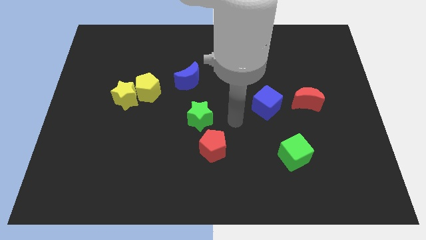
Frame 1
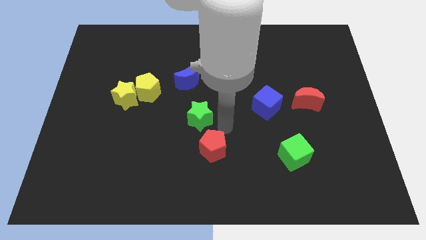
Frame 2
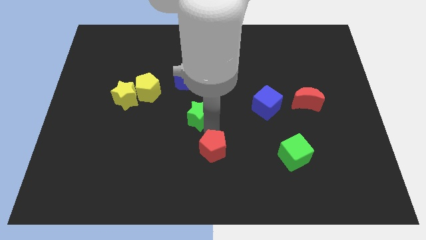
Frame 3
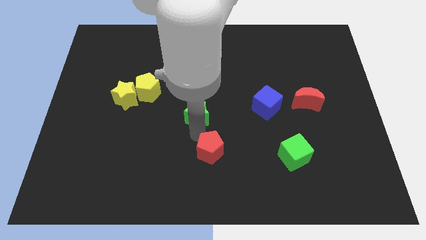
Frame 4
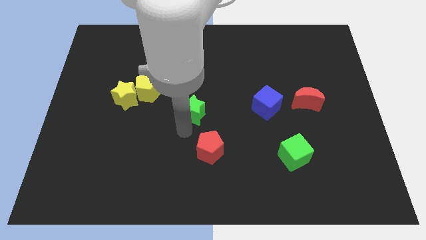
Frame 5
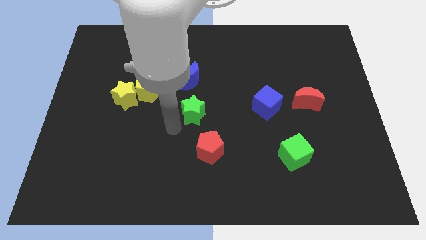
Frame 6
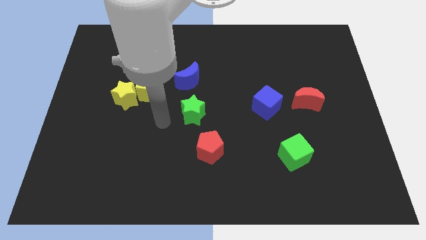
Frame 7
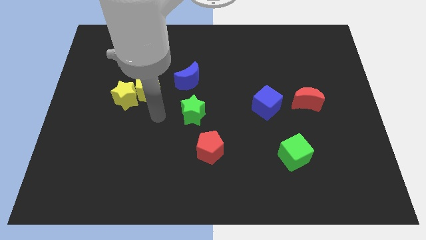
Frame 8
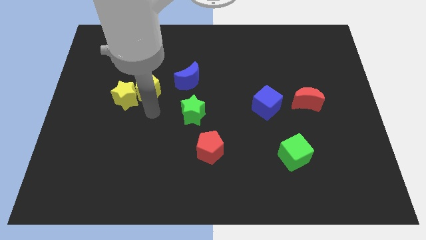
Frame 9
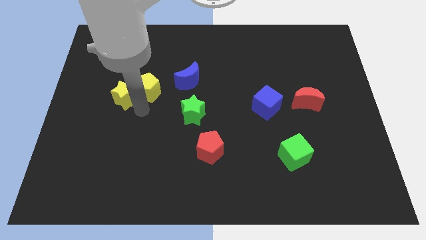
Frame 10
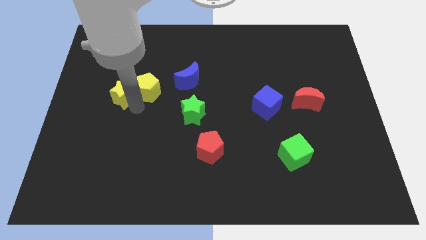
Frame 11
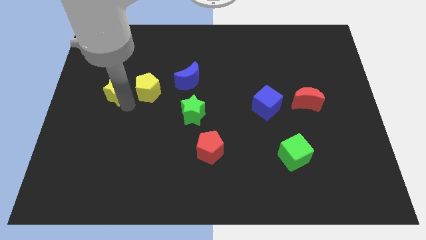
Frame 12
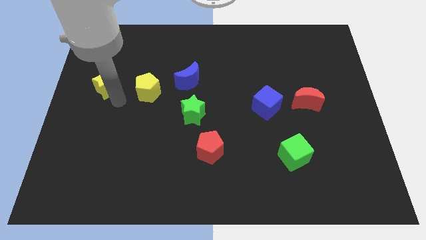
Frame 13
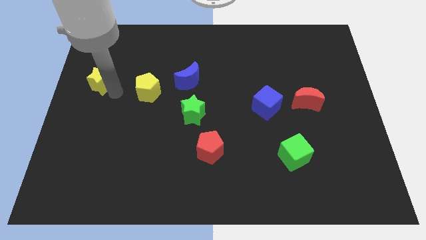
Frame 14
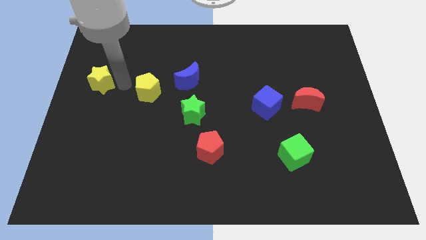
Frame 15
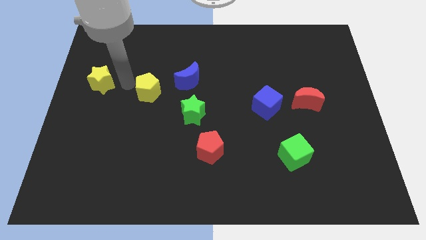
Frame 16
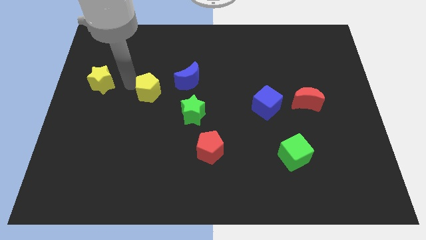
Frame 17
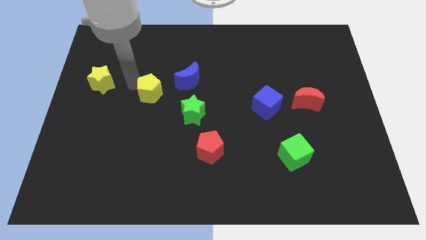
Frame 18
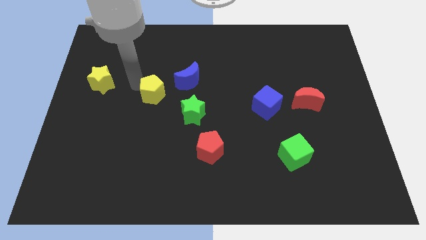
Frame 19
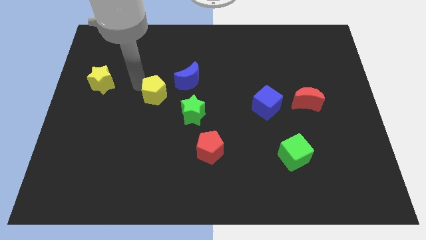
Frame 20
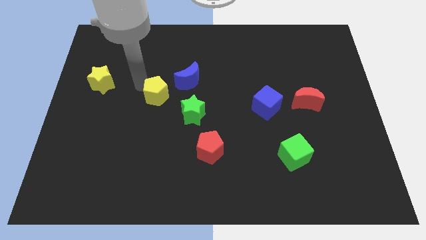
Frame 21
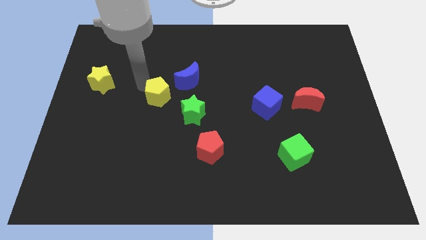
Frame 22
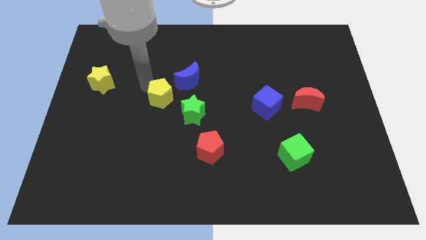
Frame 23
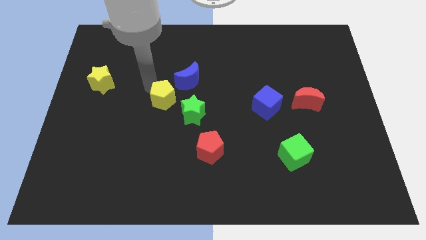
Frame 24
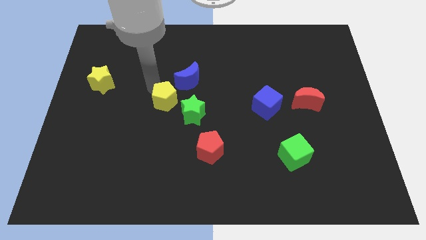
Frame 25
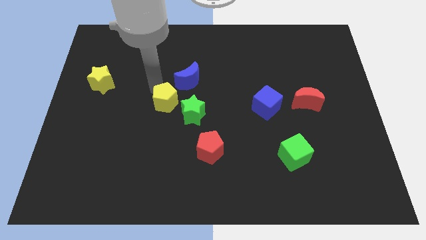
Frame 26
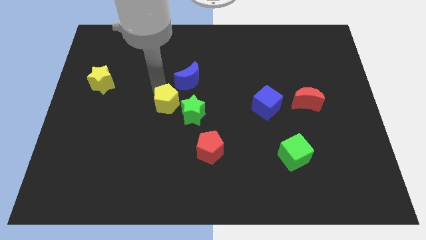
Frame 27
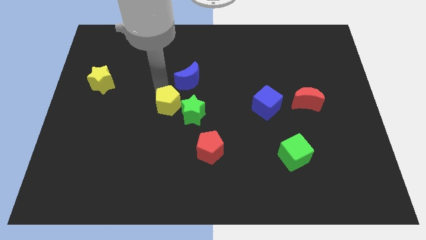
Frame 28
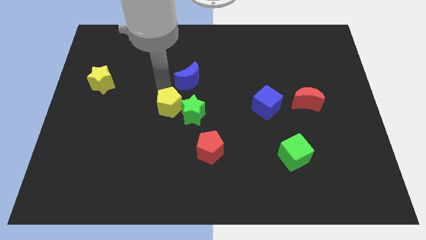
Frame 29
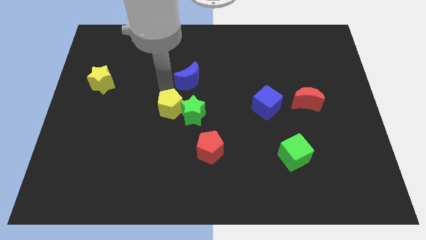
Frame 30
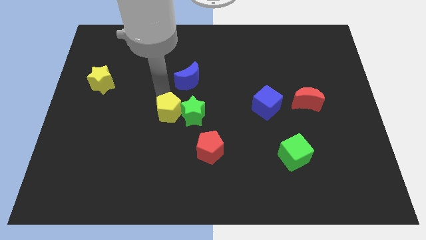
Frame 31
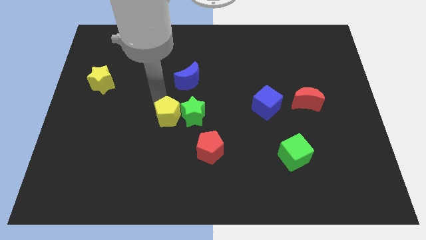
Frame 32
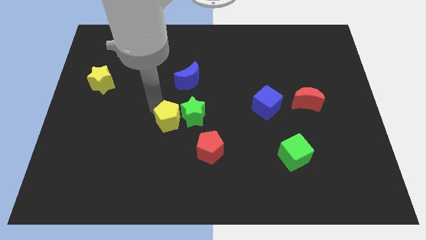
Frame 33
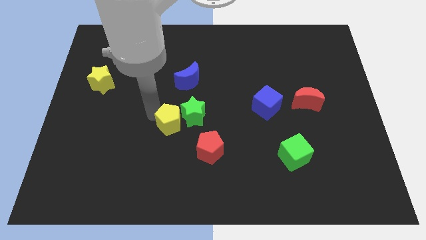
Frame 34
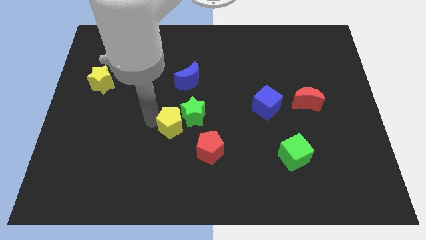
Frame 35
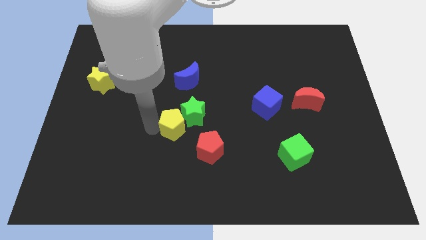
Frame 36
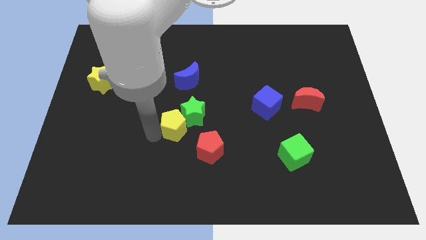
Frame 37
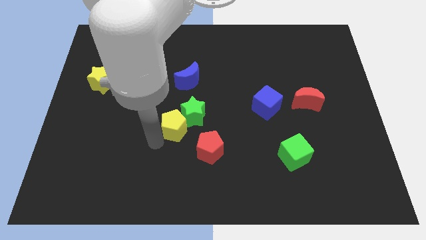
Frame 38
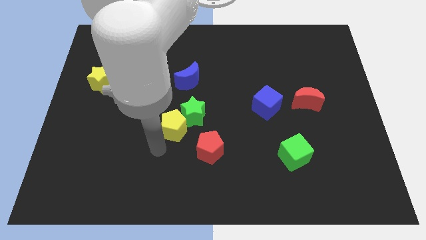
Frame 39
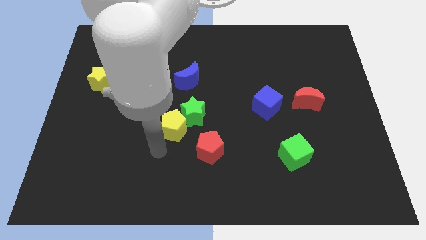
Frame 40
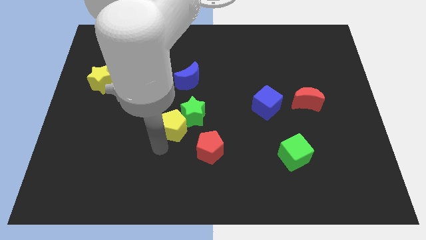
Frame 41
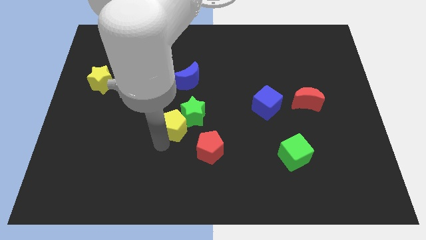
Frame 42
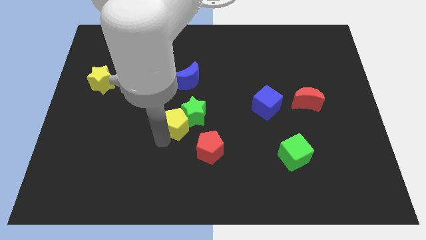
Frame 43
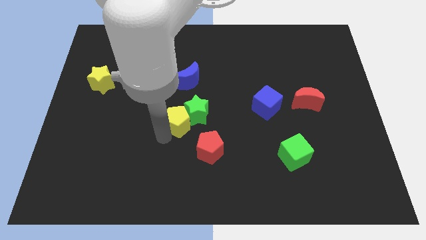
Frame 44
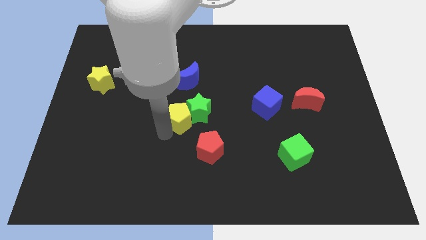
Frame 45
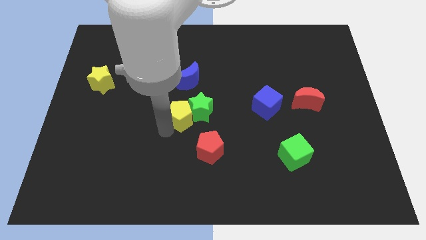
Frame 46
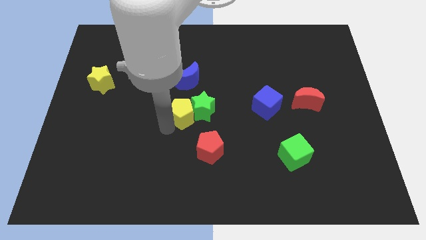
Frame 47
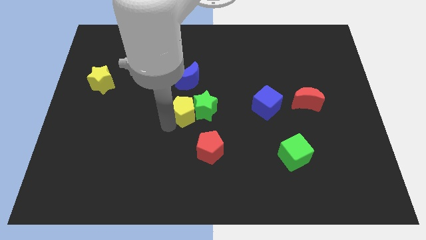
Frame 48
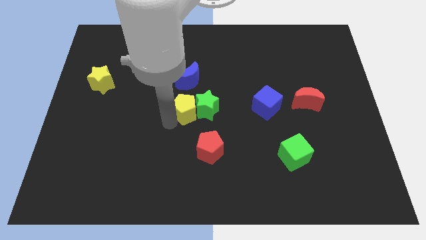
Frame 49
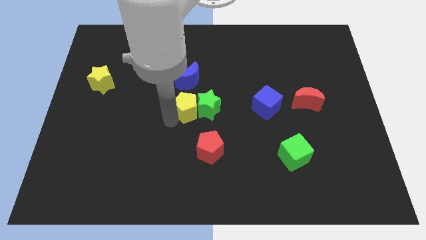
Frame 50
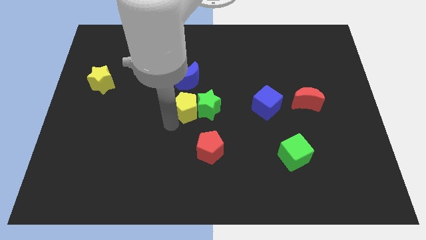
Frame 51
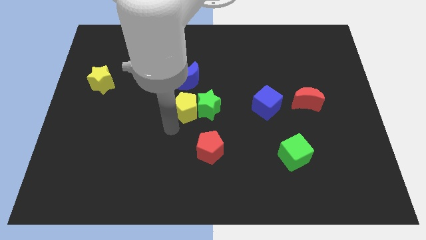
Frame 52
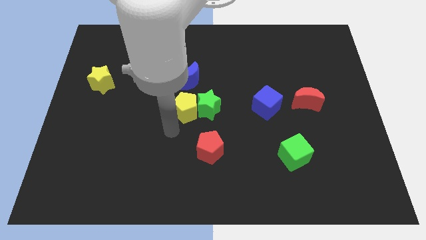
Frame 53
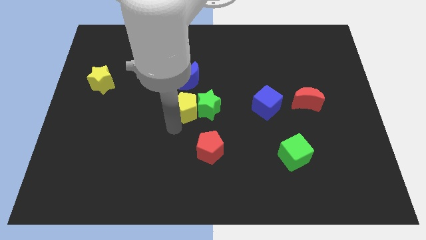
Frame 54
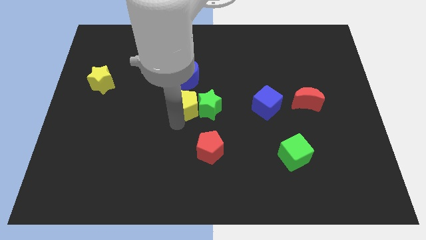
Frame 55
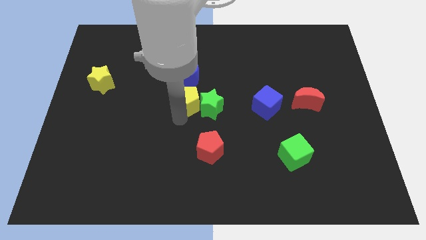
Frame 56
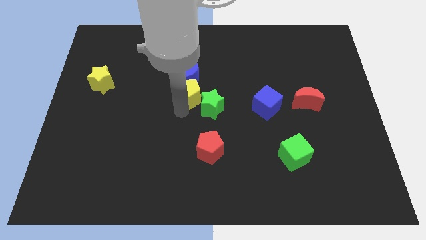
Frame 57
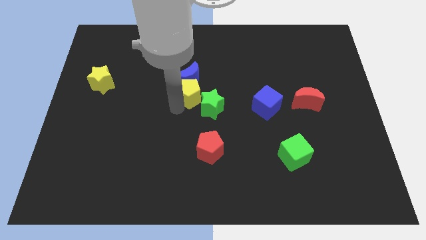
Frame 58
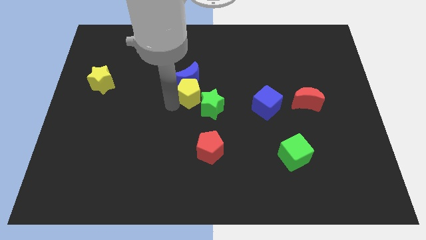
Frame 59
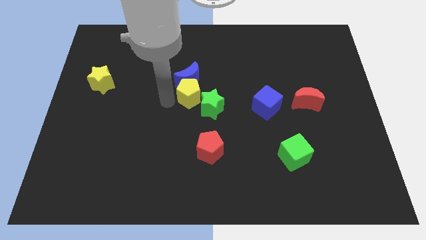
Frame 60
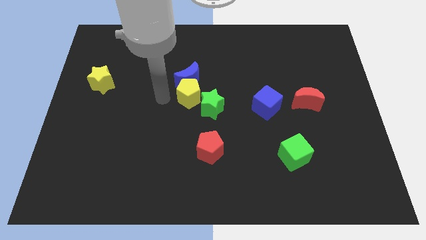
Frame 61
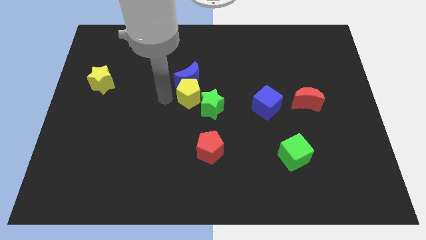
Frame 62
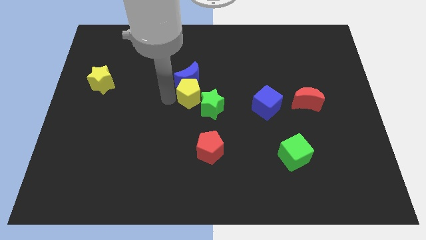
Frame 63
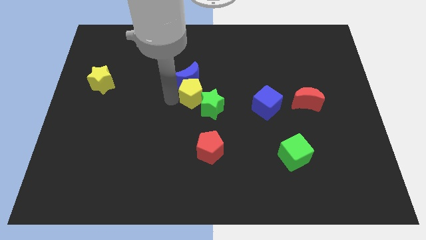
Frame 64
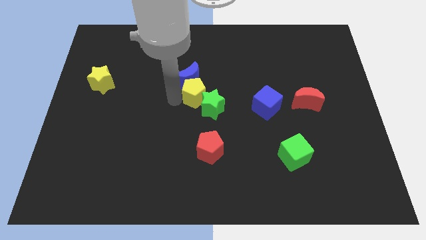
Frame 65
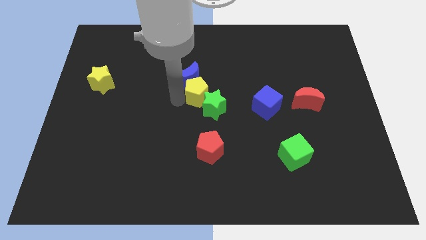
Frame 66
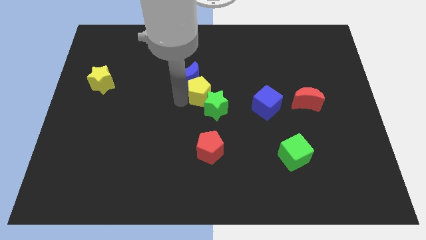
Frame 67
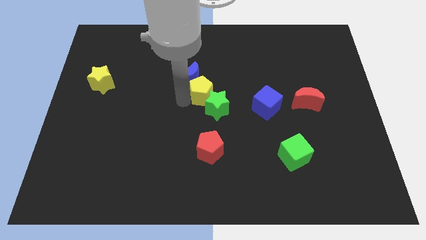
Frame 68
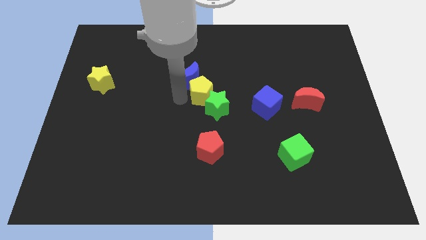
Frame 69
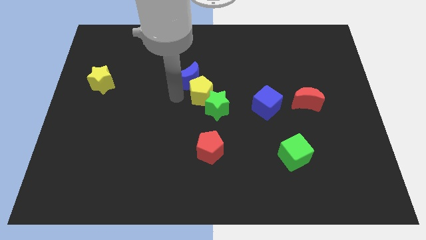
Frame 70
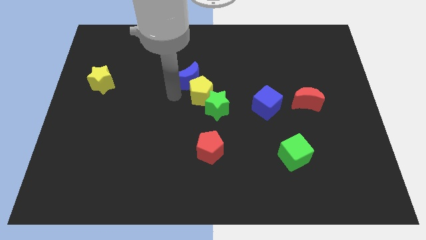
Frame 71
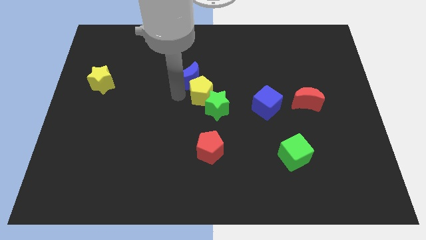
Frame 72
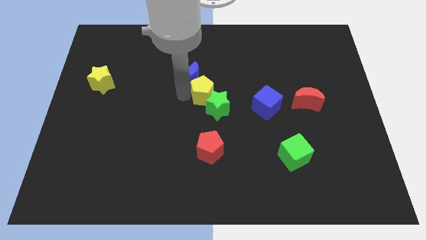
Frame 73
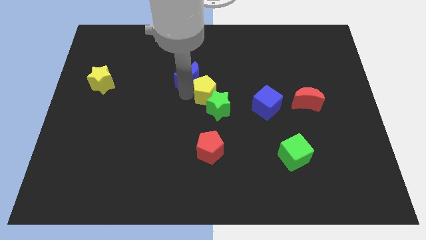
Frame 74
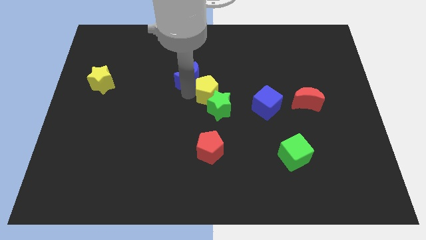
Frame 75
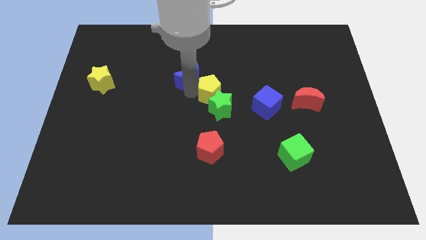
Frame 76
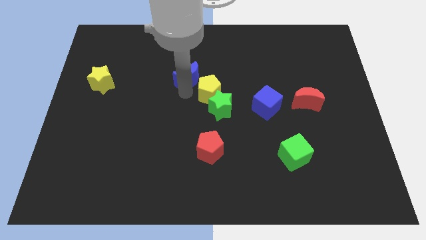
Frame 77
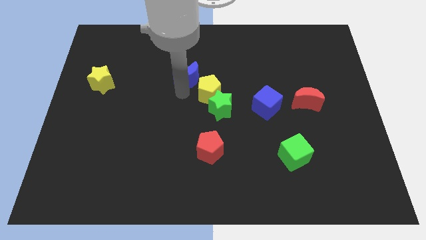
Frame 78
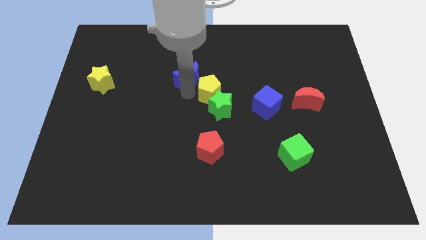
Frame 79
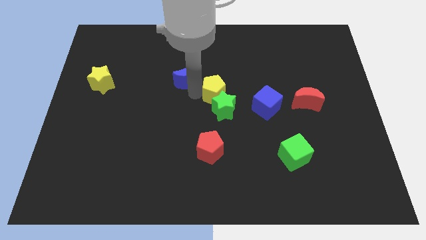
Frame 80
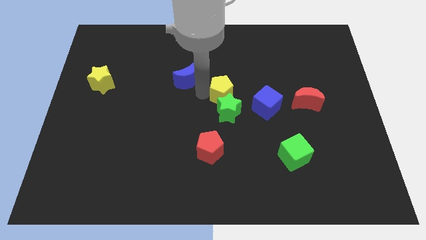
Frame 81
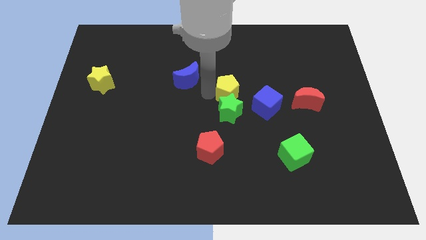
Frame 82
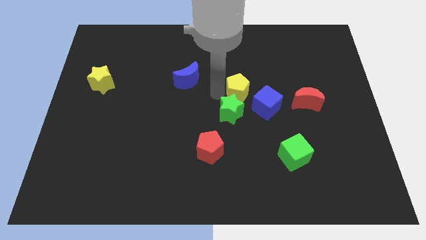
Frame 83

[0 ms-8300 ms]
push the yellow pentagon right
